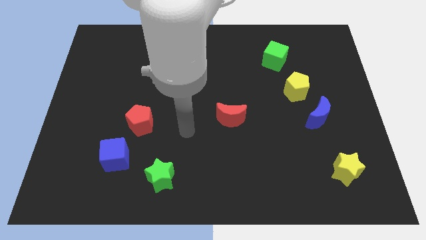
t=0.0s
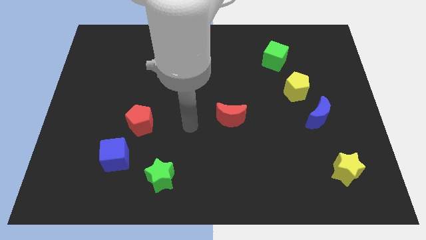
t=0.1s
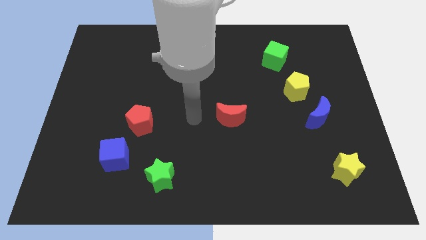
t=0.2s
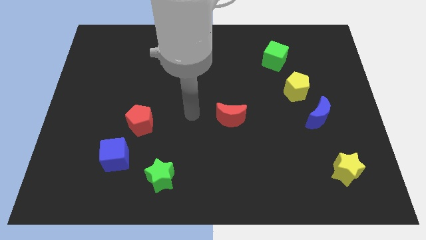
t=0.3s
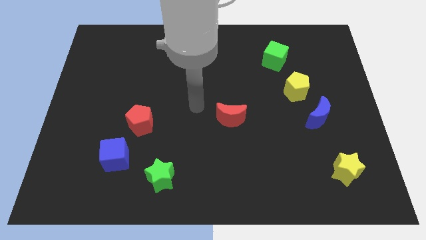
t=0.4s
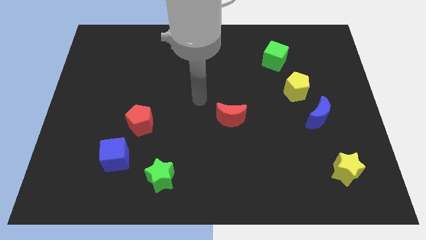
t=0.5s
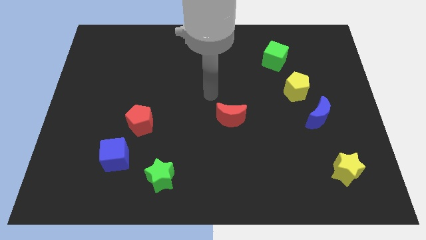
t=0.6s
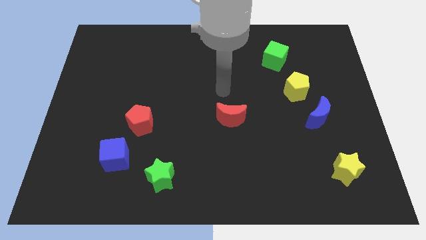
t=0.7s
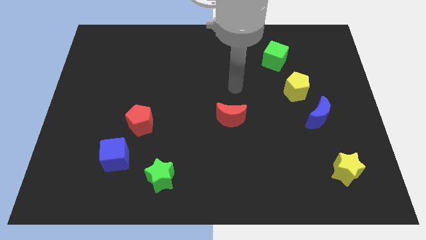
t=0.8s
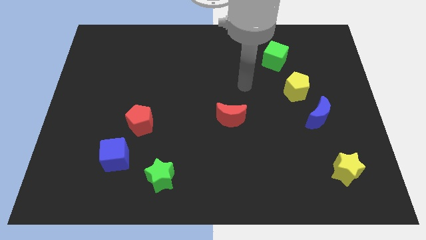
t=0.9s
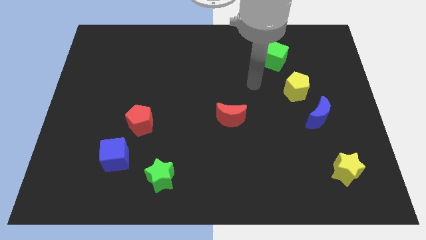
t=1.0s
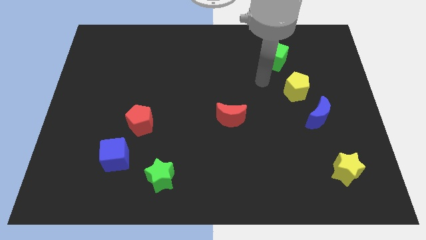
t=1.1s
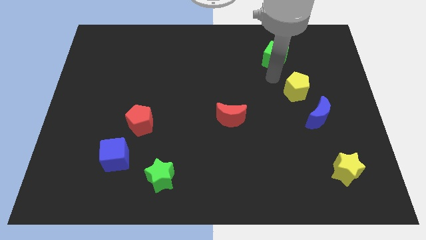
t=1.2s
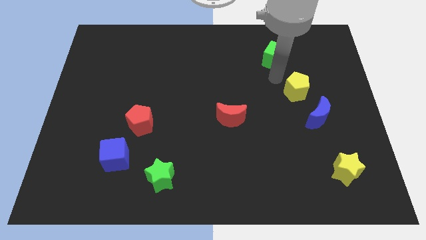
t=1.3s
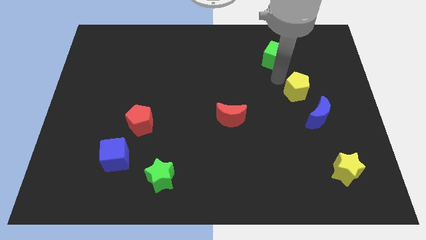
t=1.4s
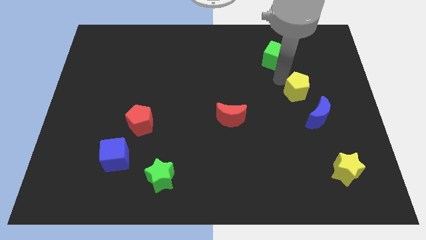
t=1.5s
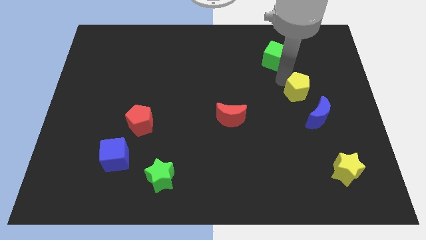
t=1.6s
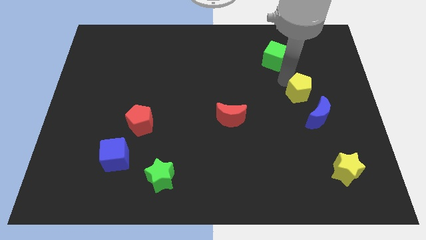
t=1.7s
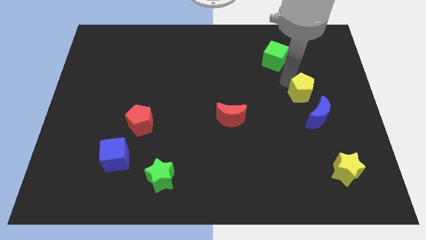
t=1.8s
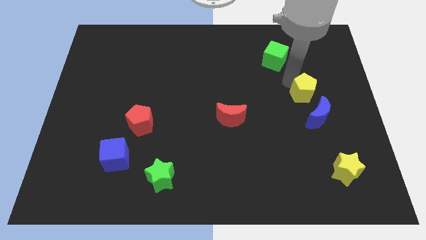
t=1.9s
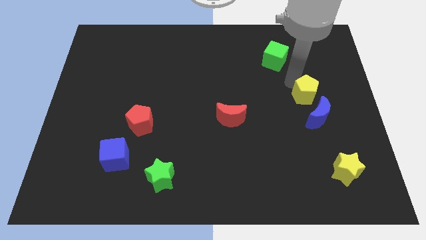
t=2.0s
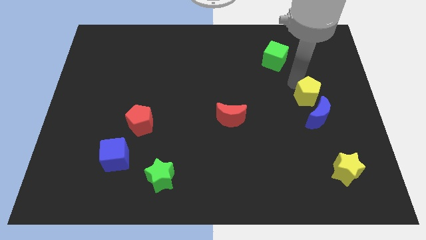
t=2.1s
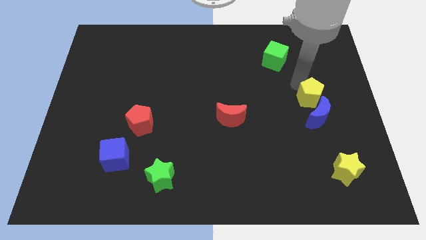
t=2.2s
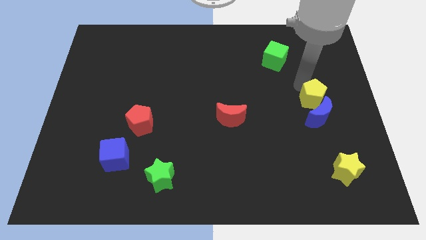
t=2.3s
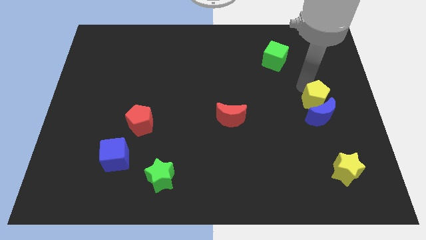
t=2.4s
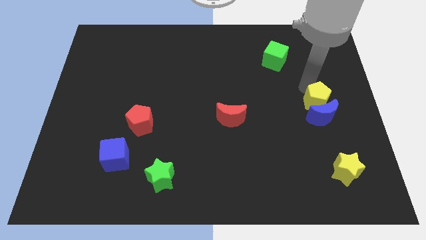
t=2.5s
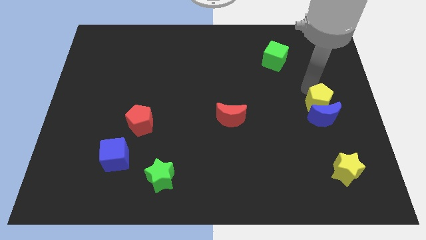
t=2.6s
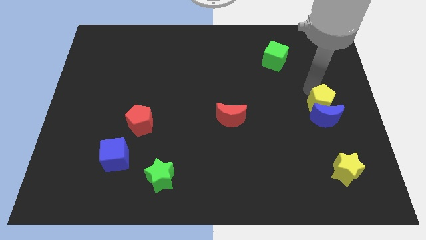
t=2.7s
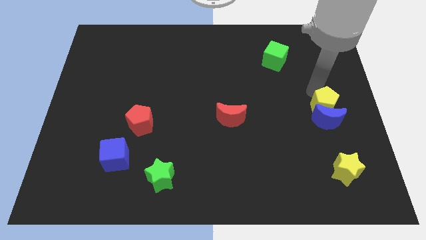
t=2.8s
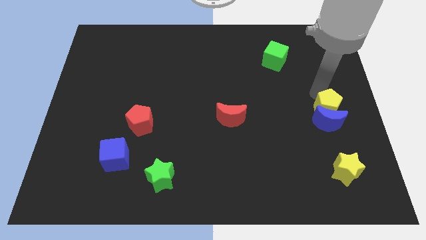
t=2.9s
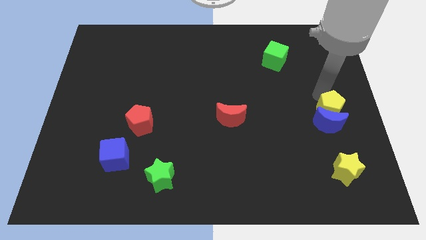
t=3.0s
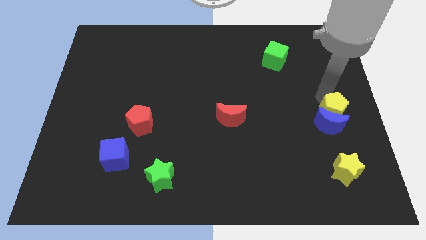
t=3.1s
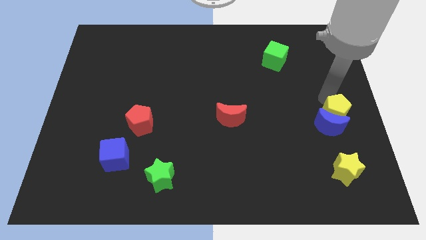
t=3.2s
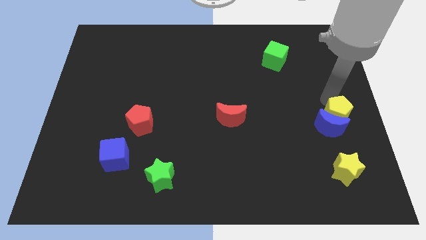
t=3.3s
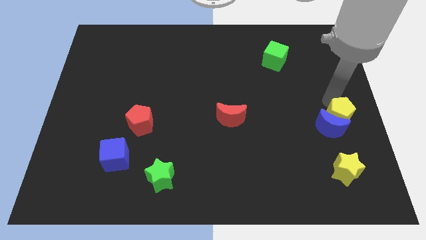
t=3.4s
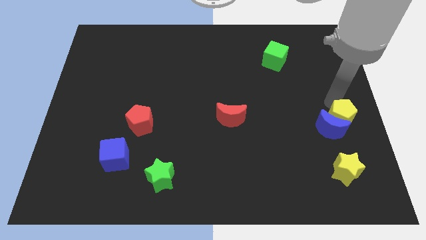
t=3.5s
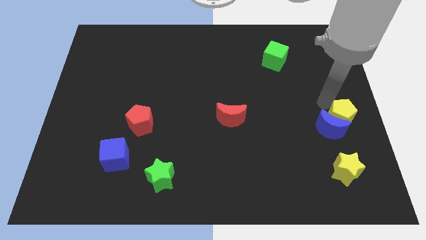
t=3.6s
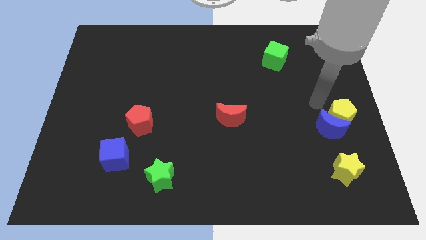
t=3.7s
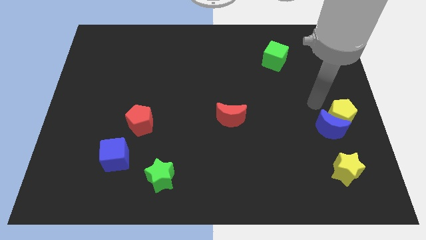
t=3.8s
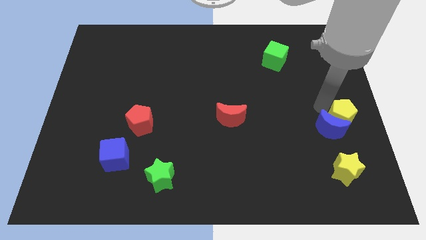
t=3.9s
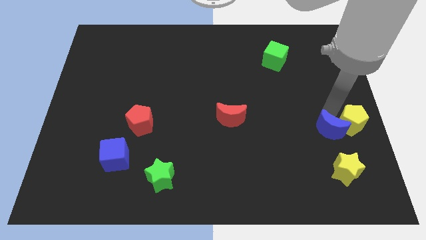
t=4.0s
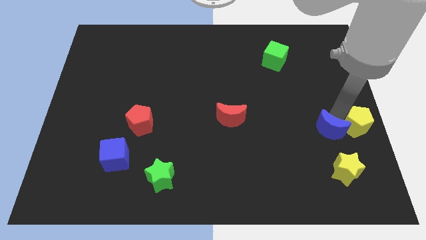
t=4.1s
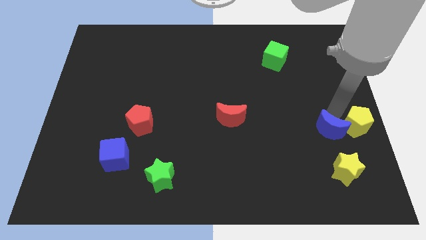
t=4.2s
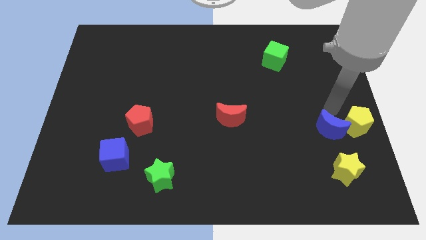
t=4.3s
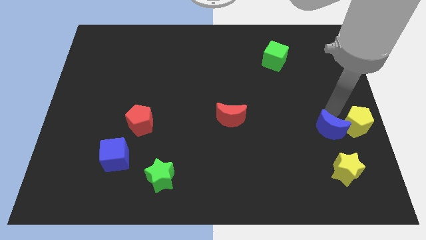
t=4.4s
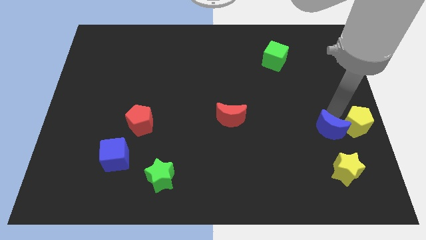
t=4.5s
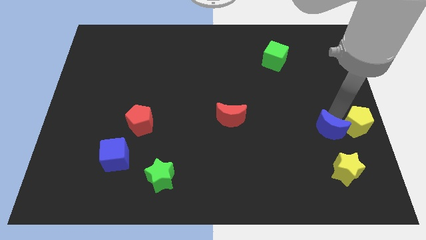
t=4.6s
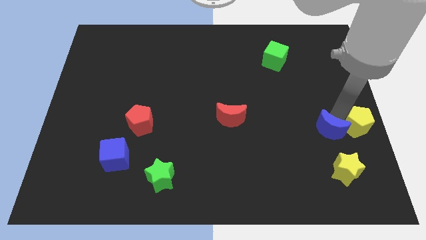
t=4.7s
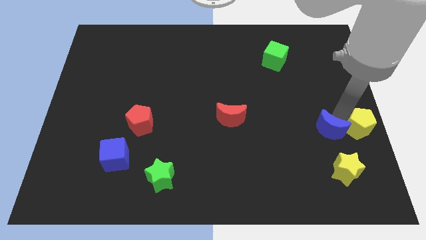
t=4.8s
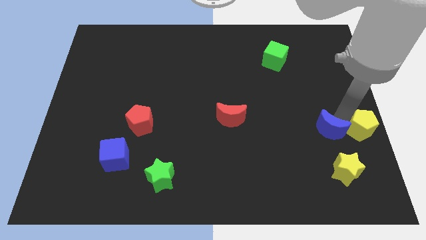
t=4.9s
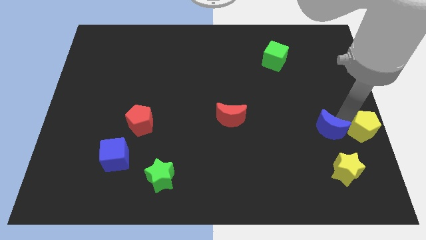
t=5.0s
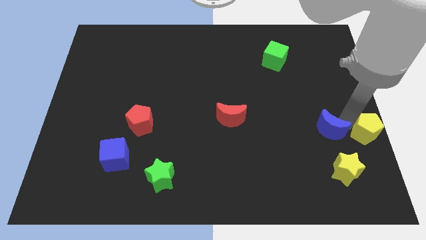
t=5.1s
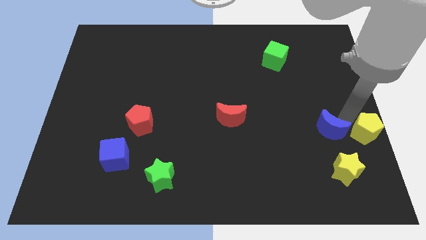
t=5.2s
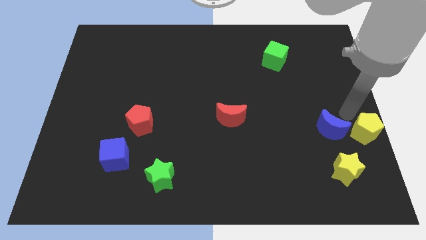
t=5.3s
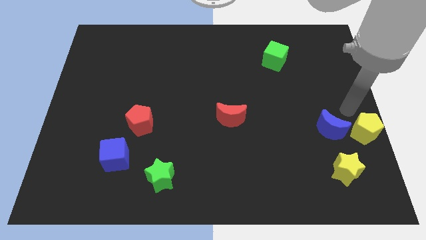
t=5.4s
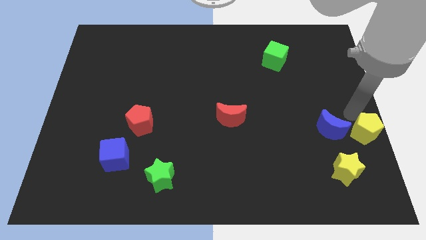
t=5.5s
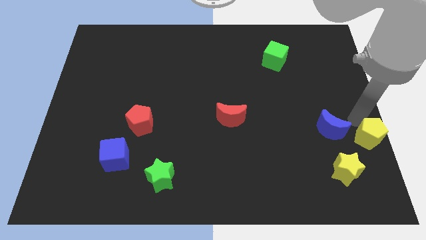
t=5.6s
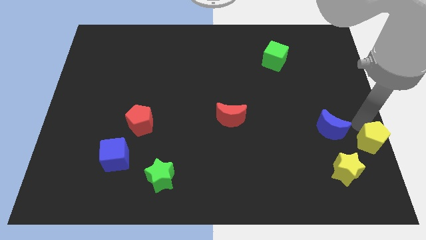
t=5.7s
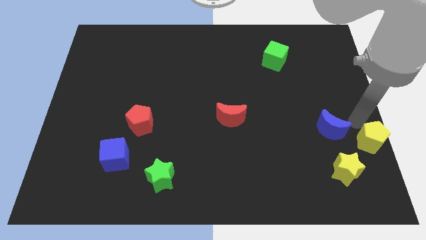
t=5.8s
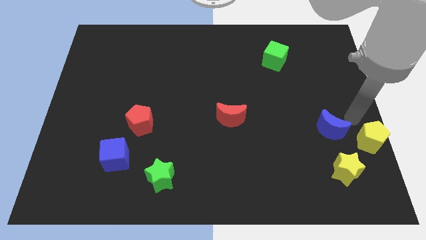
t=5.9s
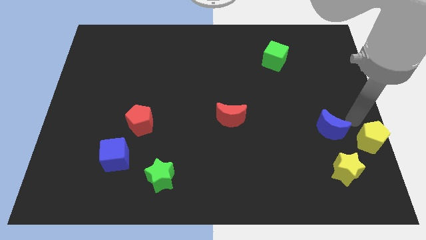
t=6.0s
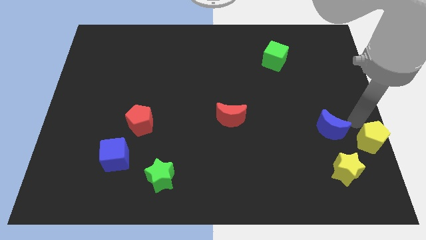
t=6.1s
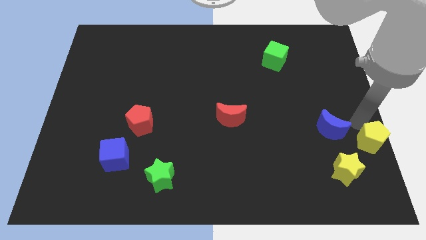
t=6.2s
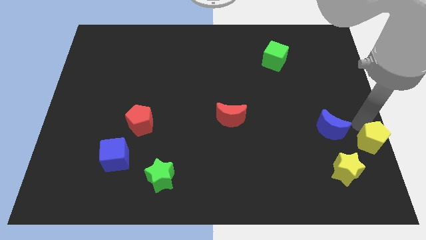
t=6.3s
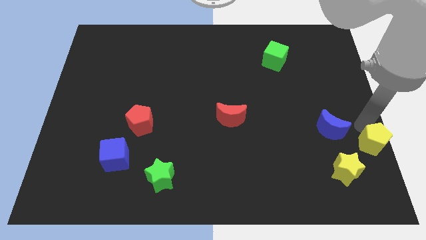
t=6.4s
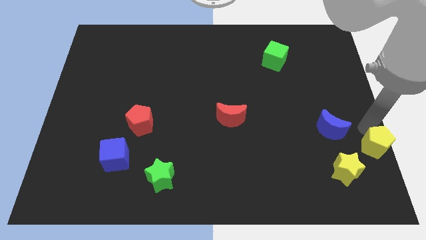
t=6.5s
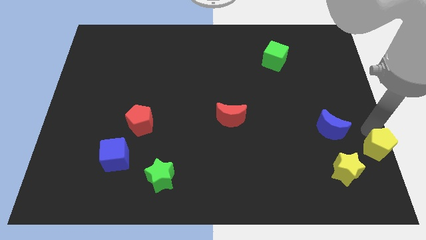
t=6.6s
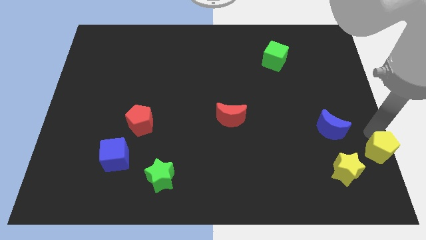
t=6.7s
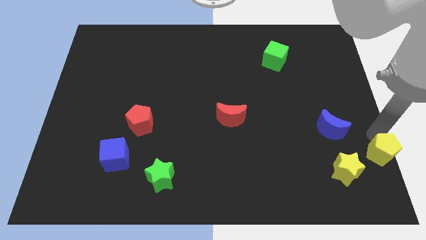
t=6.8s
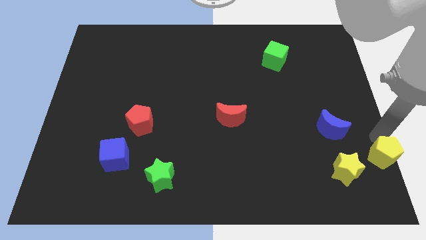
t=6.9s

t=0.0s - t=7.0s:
slide the yellow pentagon to the lower right corner
